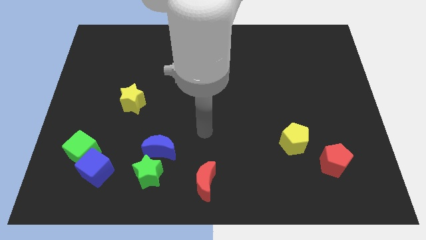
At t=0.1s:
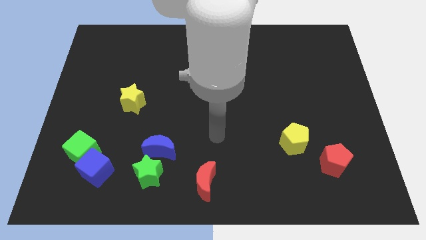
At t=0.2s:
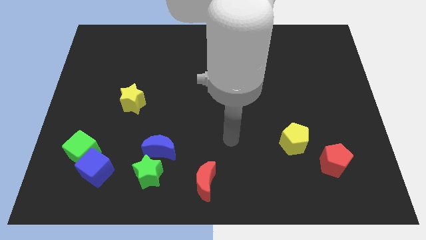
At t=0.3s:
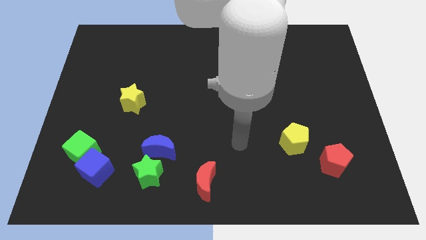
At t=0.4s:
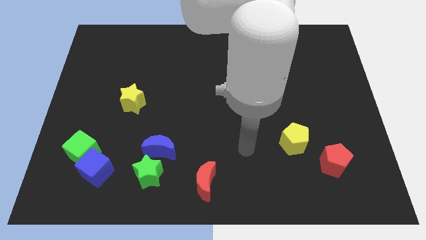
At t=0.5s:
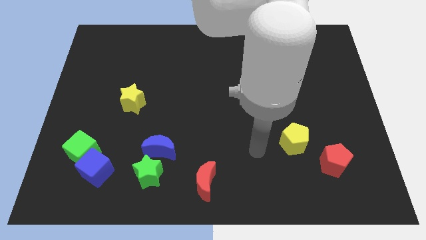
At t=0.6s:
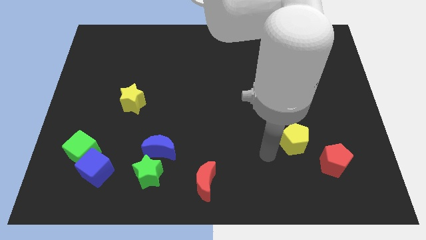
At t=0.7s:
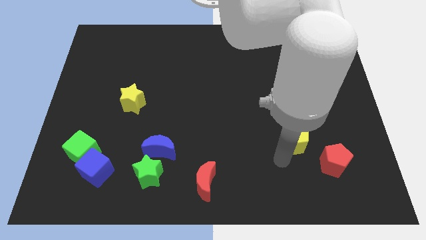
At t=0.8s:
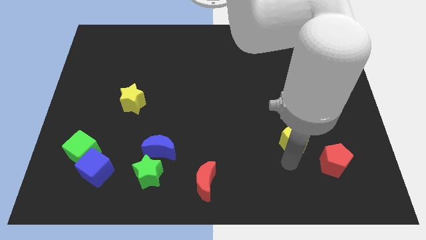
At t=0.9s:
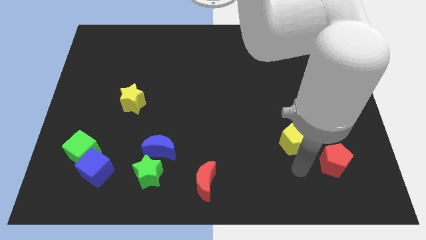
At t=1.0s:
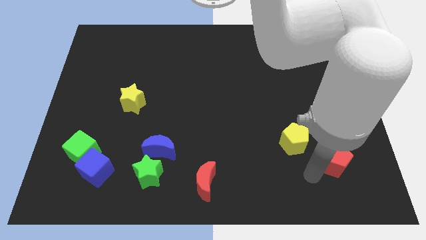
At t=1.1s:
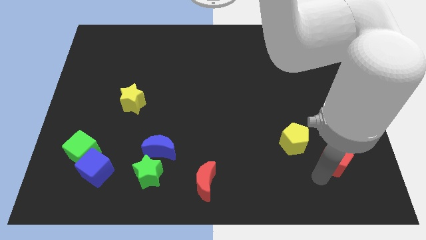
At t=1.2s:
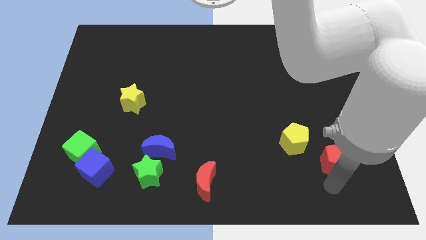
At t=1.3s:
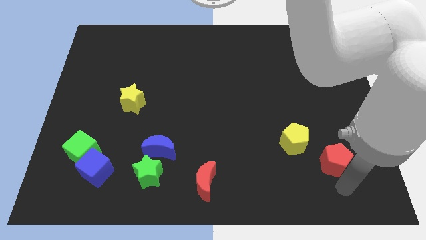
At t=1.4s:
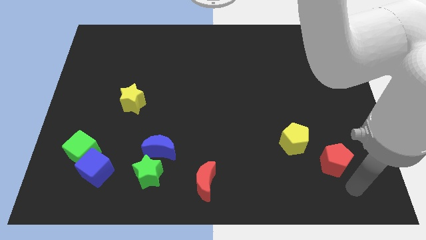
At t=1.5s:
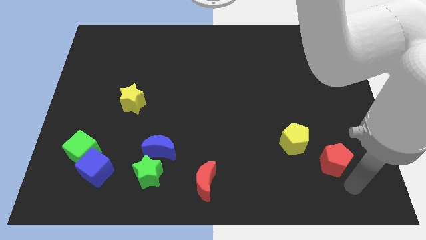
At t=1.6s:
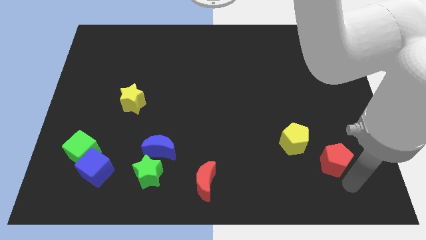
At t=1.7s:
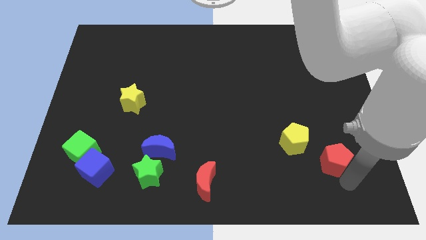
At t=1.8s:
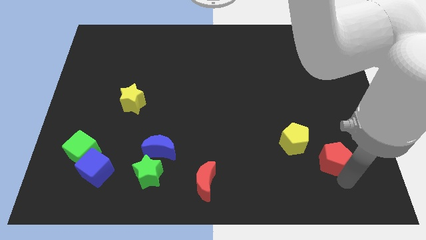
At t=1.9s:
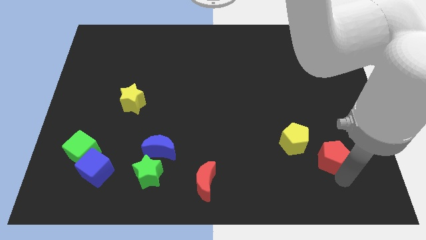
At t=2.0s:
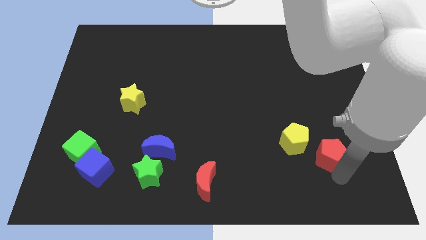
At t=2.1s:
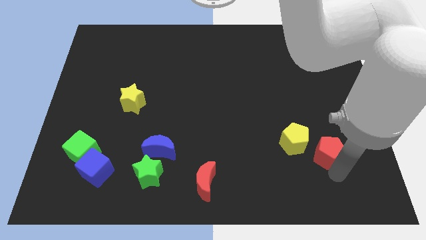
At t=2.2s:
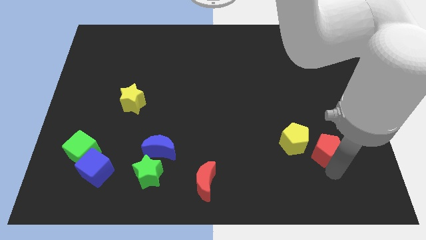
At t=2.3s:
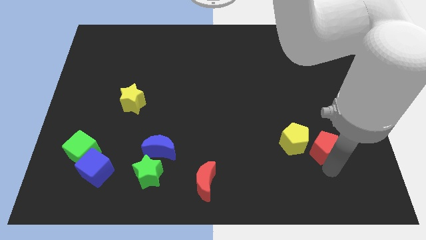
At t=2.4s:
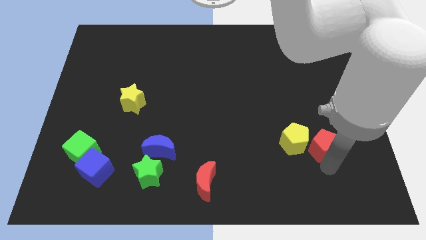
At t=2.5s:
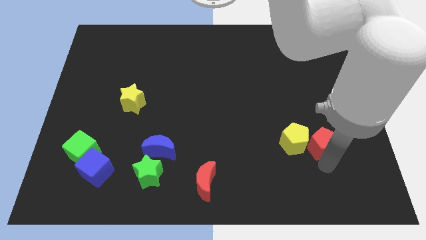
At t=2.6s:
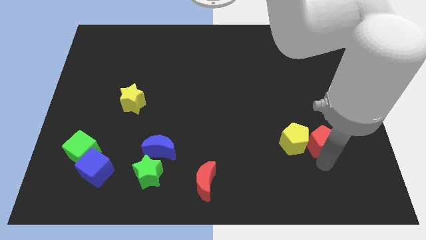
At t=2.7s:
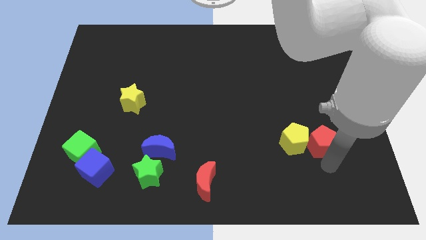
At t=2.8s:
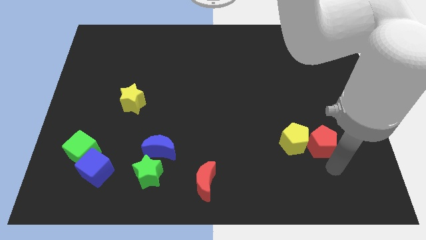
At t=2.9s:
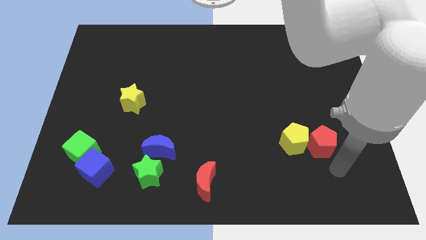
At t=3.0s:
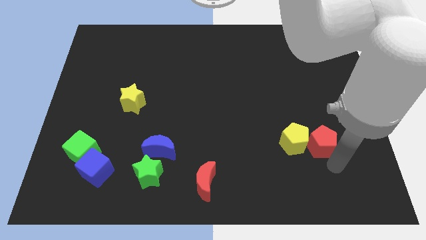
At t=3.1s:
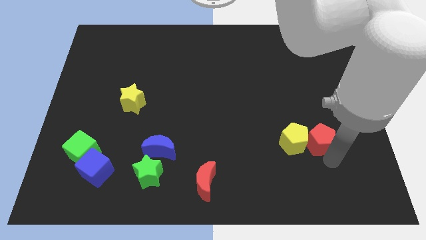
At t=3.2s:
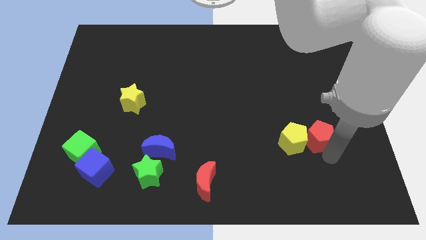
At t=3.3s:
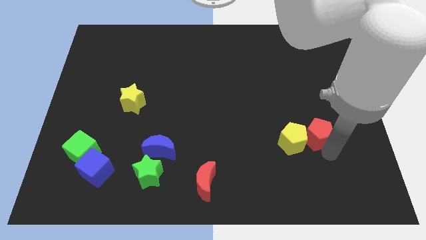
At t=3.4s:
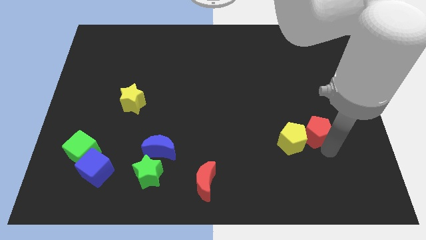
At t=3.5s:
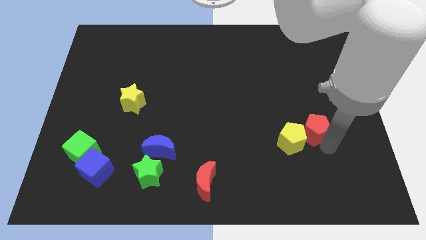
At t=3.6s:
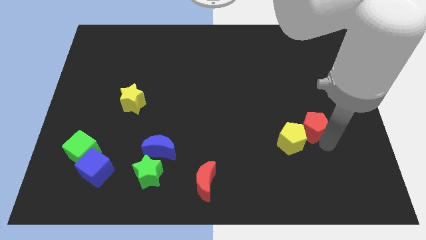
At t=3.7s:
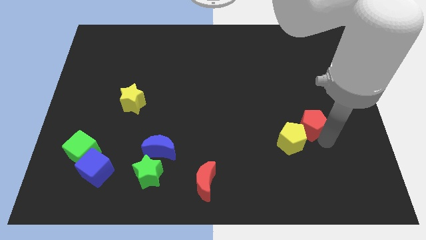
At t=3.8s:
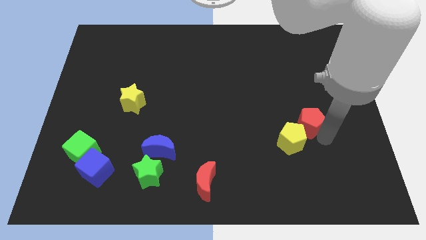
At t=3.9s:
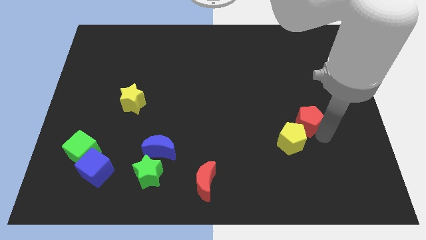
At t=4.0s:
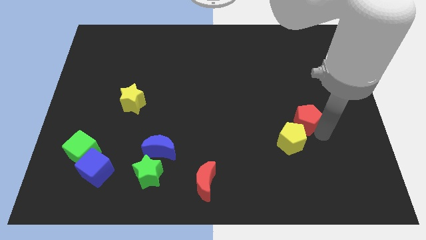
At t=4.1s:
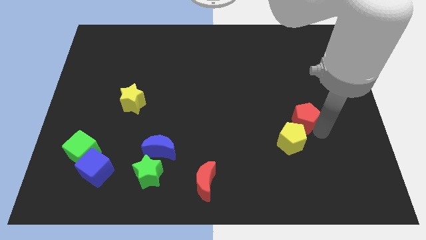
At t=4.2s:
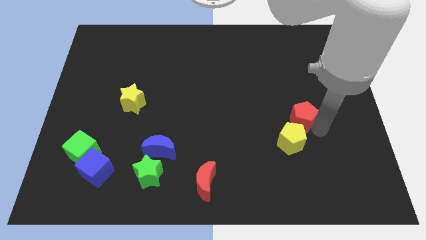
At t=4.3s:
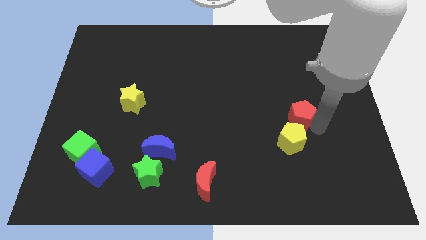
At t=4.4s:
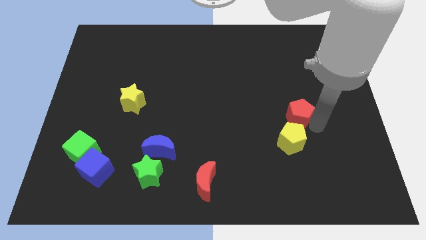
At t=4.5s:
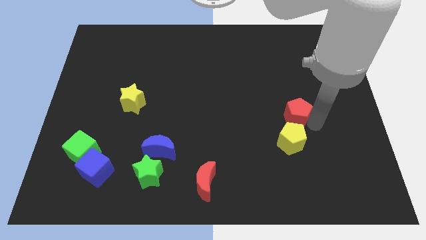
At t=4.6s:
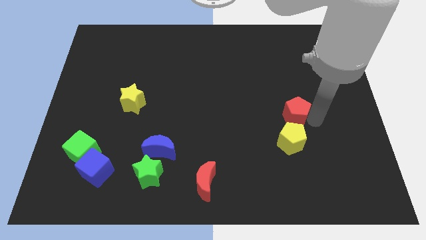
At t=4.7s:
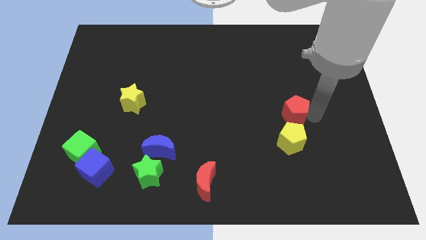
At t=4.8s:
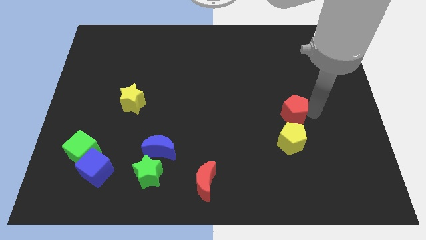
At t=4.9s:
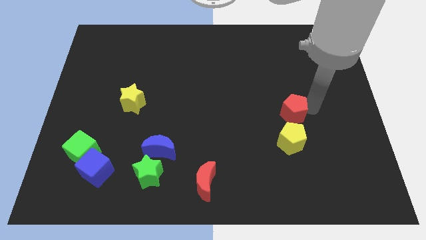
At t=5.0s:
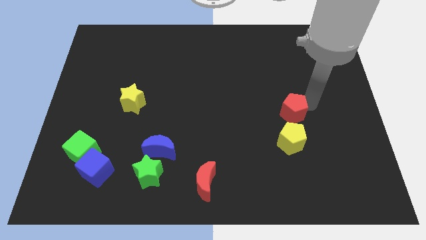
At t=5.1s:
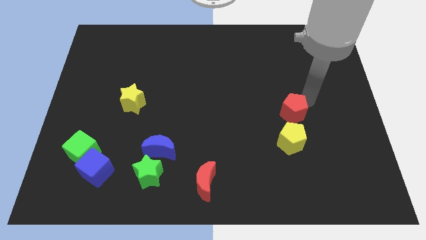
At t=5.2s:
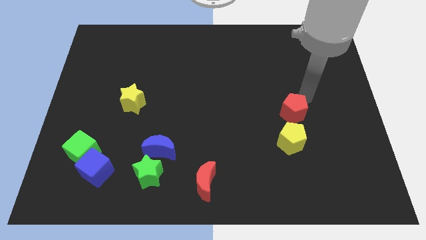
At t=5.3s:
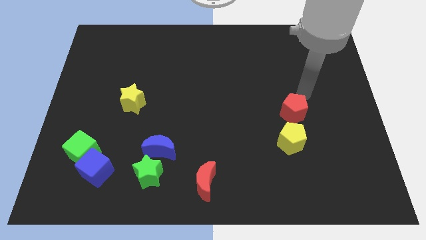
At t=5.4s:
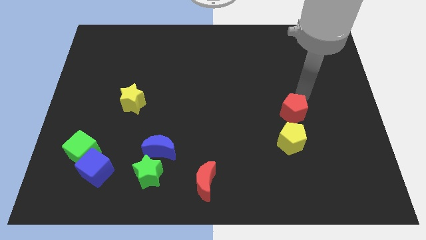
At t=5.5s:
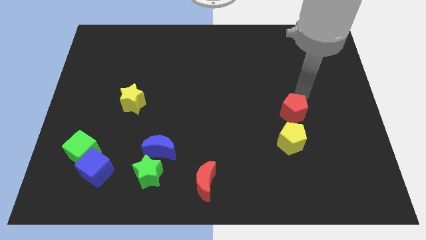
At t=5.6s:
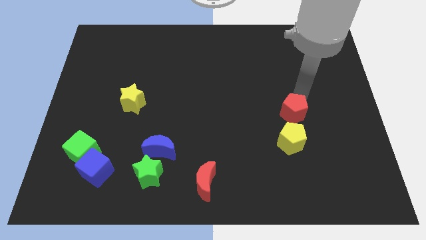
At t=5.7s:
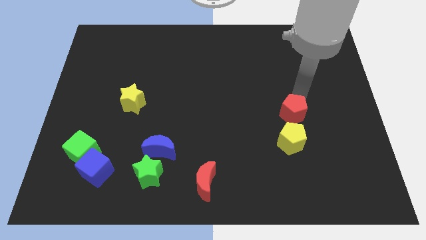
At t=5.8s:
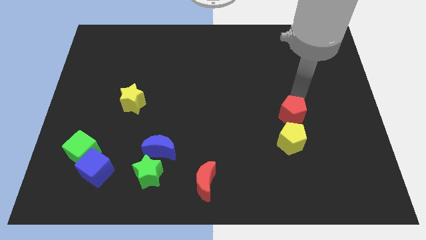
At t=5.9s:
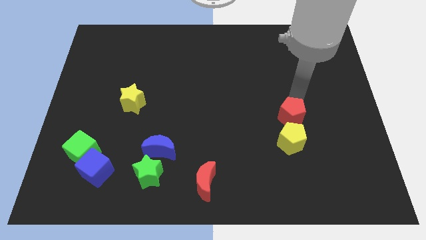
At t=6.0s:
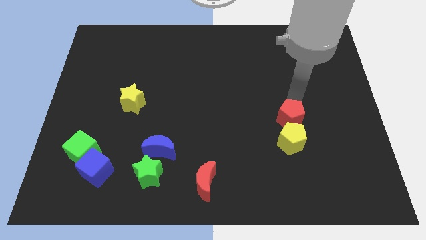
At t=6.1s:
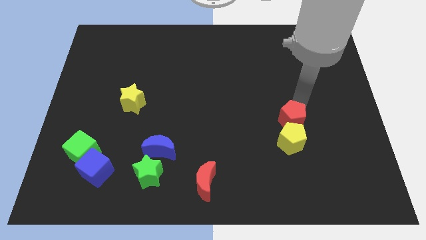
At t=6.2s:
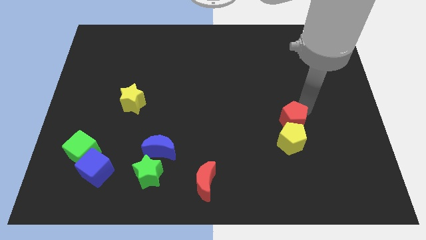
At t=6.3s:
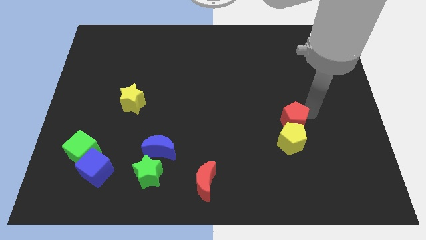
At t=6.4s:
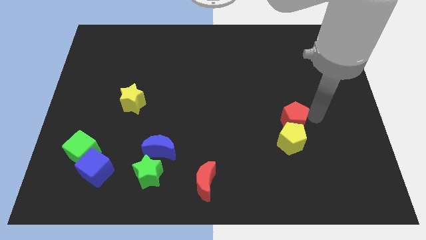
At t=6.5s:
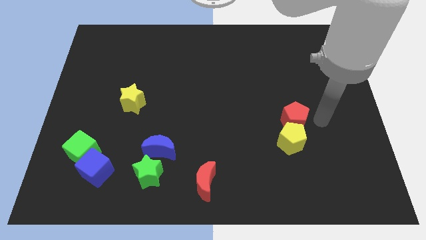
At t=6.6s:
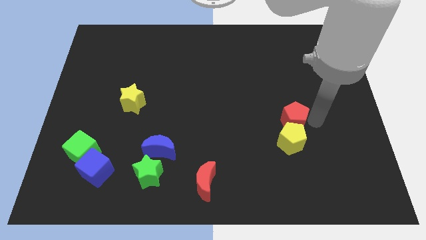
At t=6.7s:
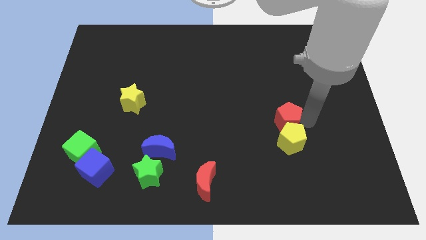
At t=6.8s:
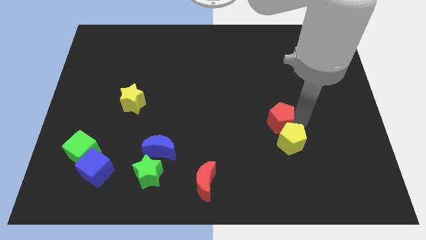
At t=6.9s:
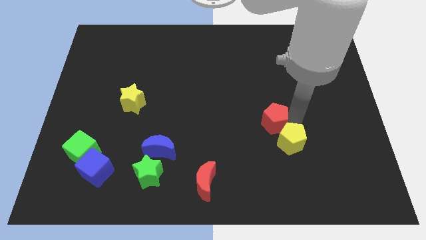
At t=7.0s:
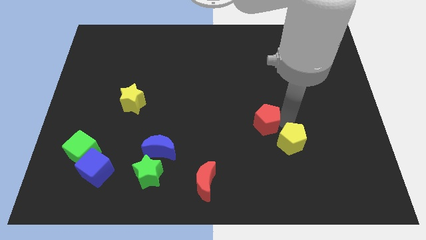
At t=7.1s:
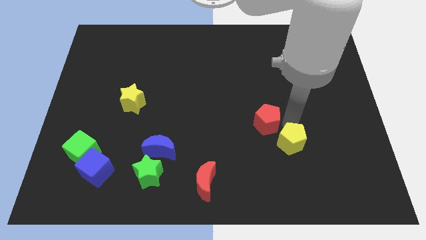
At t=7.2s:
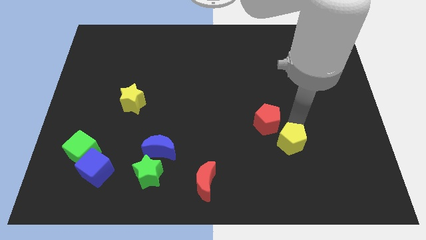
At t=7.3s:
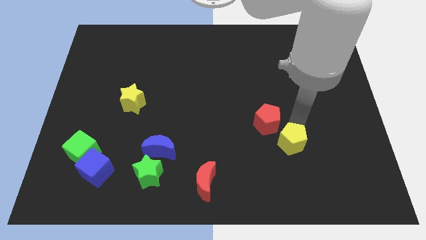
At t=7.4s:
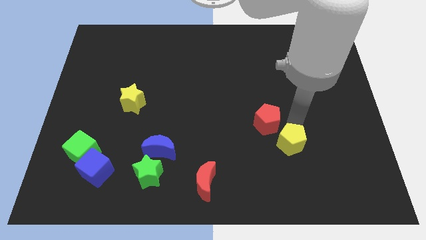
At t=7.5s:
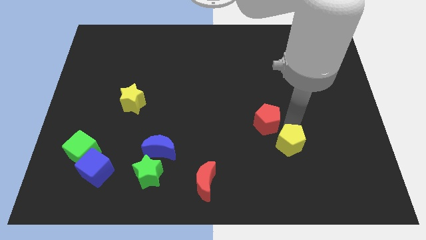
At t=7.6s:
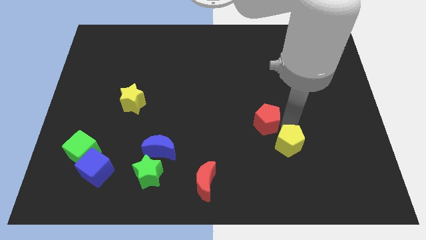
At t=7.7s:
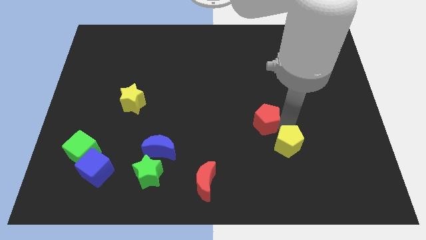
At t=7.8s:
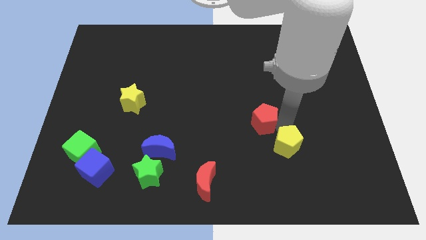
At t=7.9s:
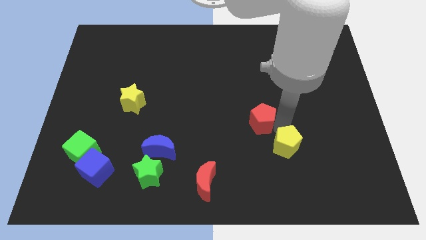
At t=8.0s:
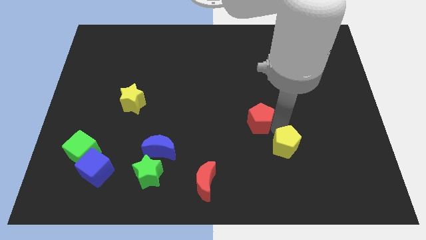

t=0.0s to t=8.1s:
put the red pentagon to the center
